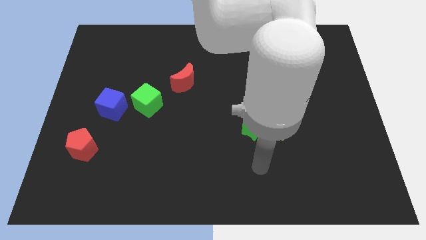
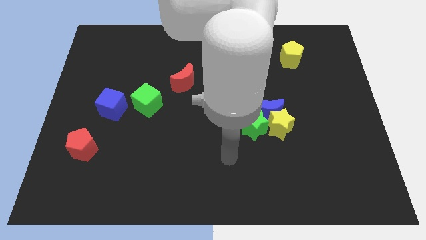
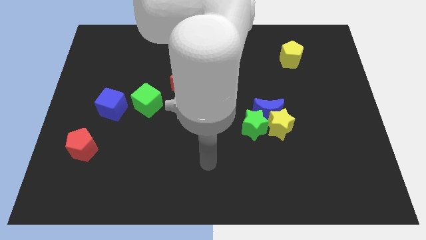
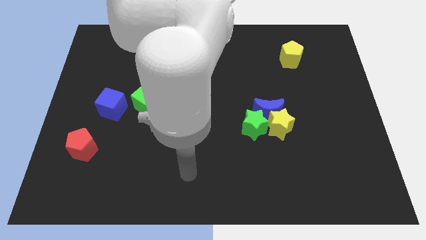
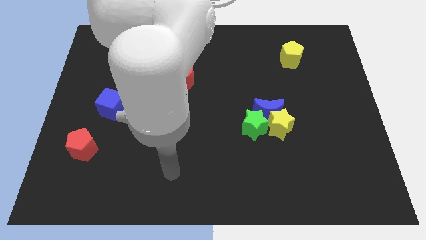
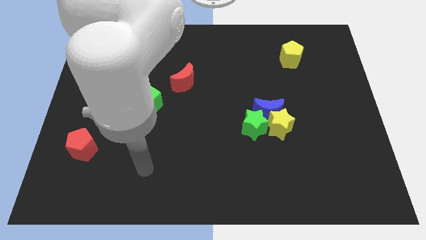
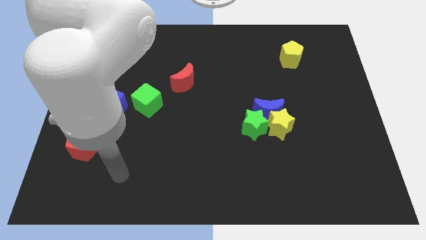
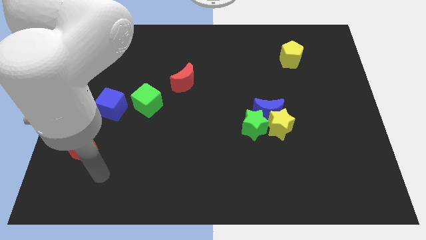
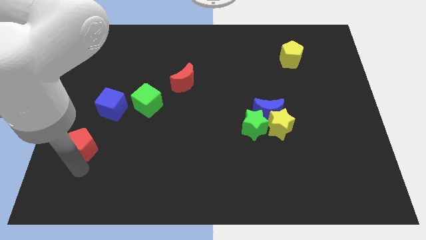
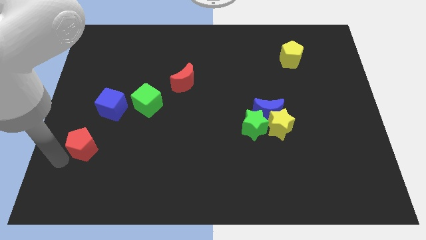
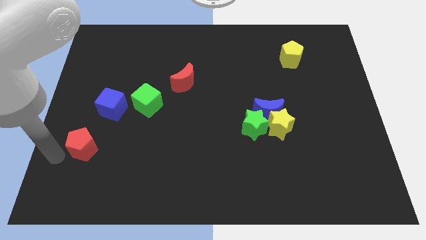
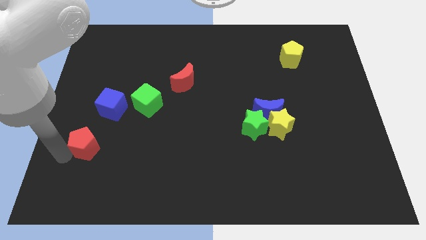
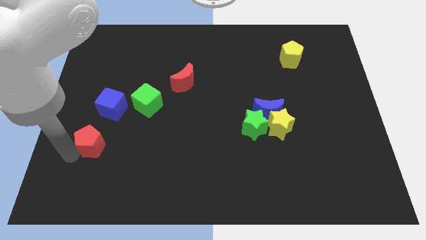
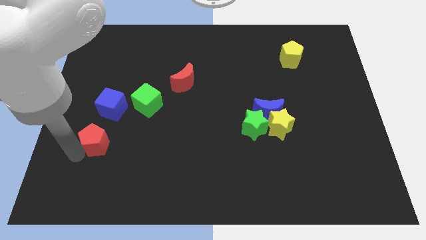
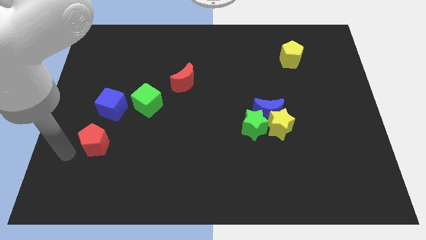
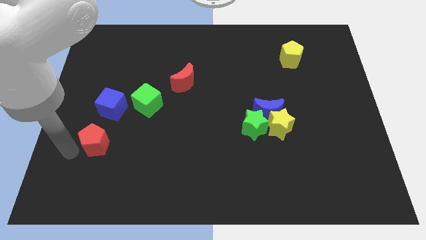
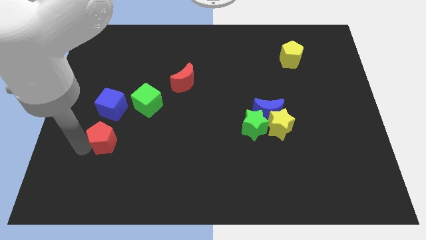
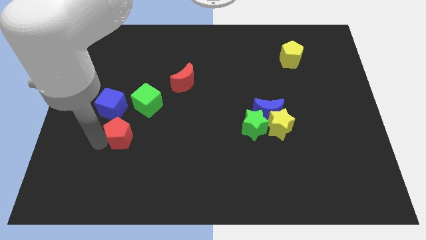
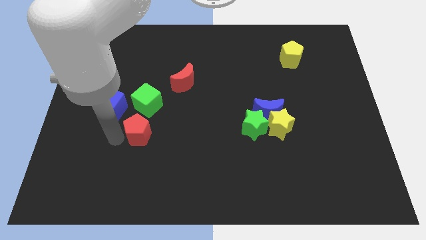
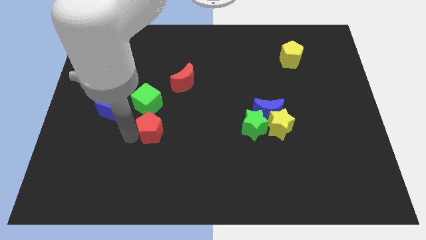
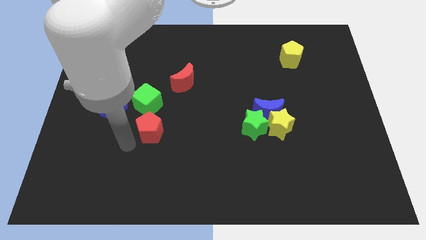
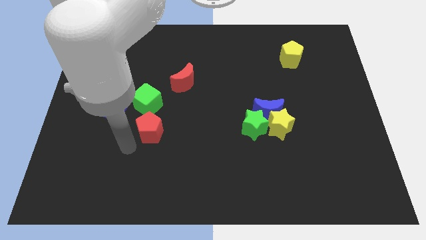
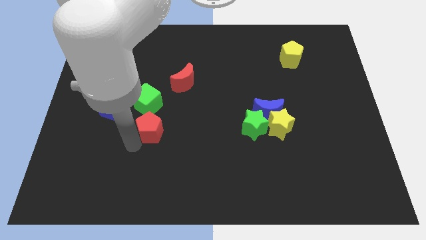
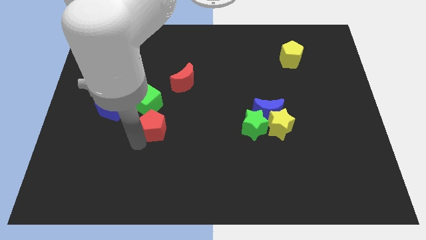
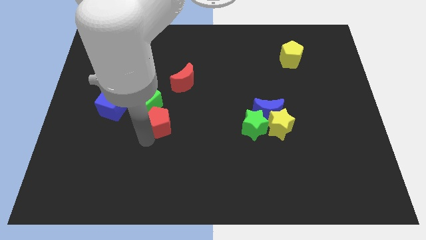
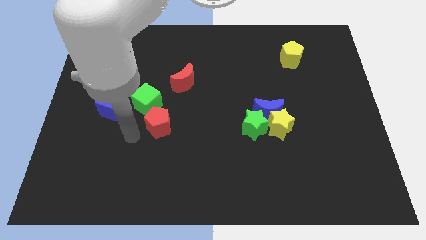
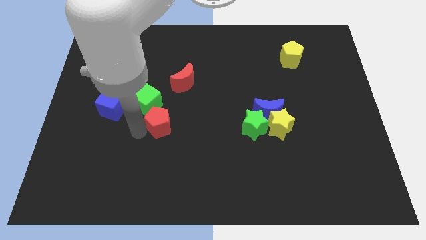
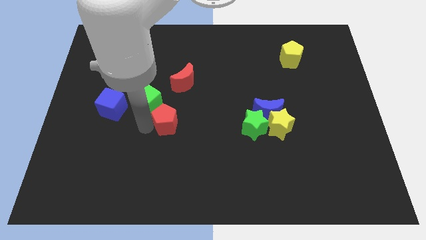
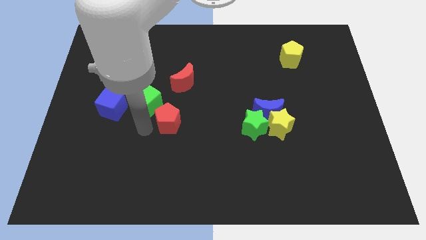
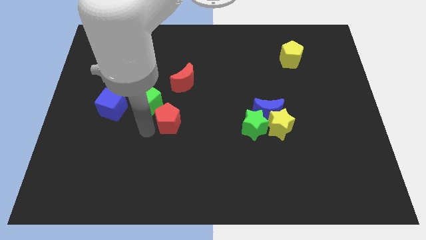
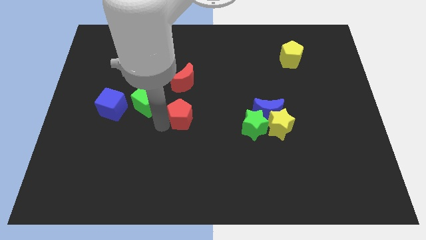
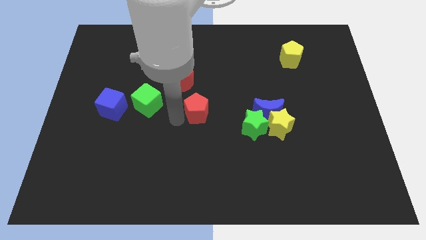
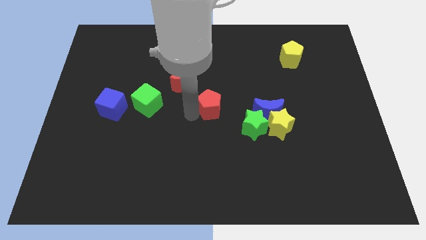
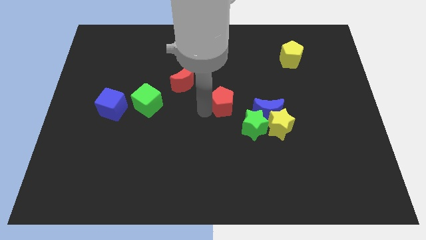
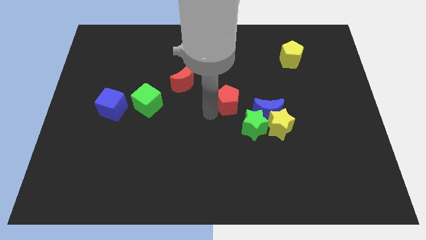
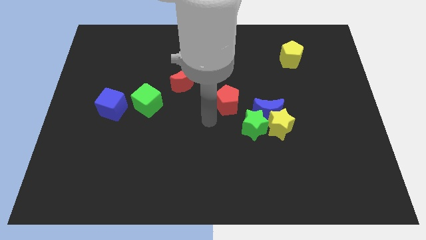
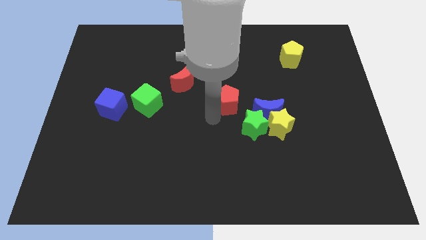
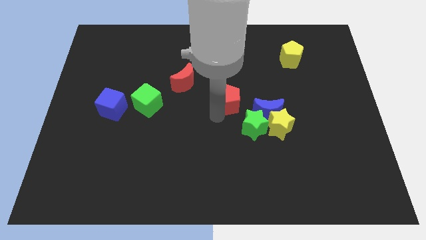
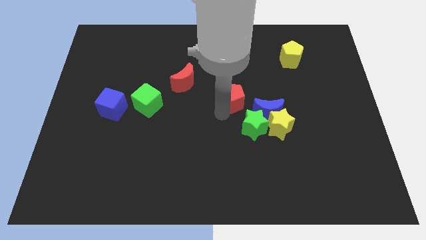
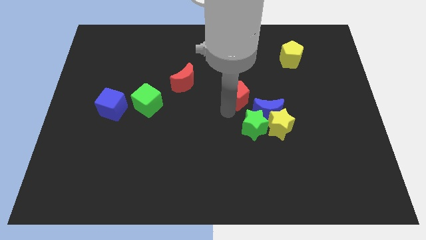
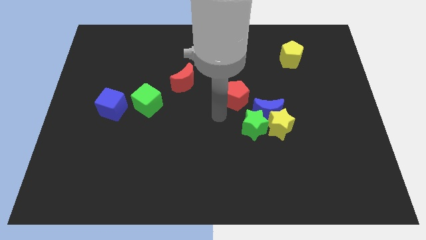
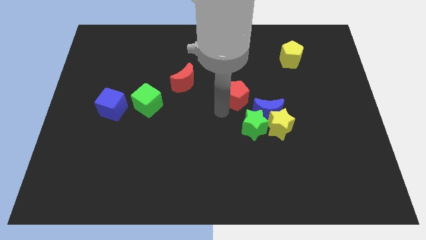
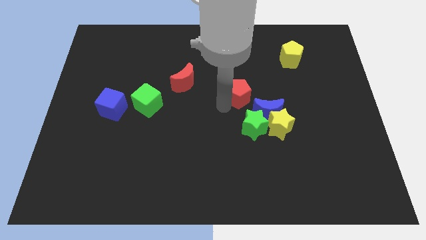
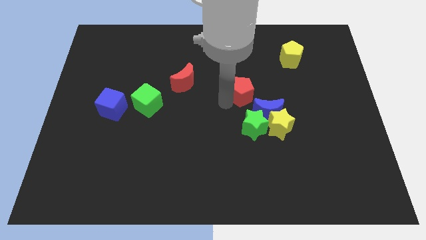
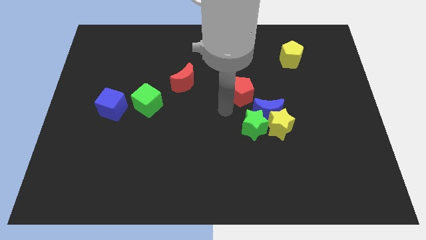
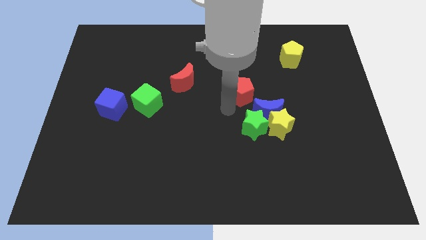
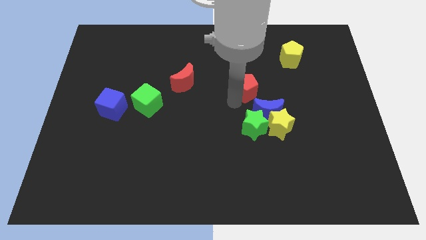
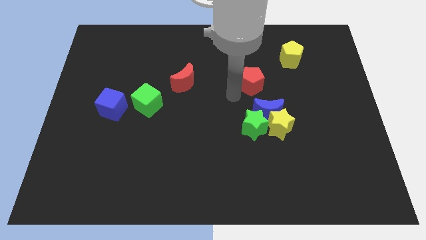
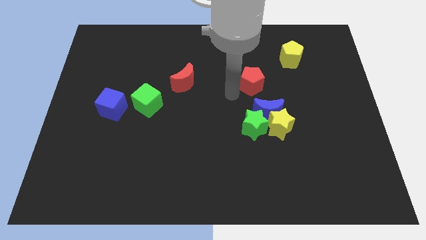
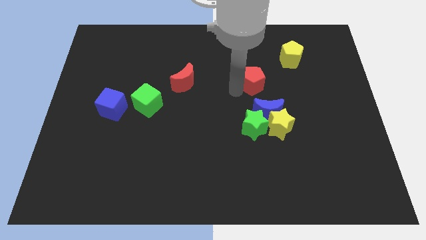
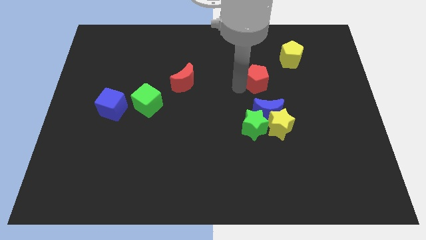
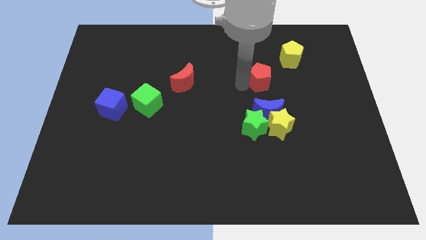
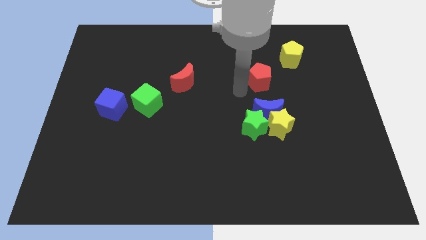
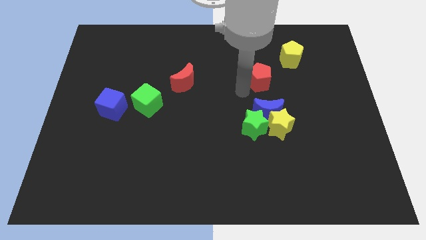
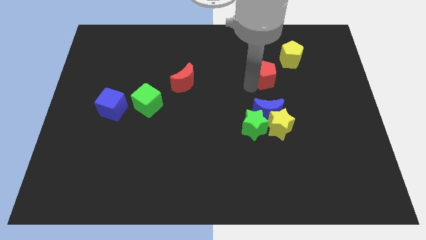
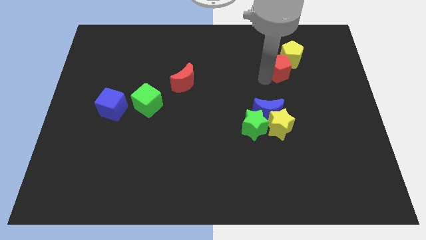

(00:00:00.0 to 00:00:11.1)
slide the red pentagon close to the yellow pentagon

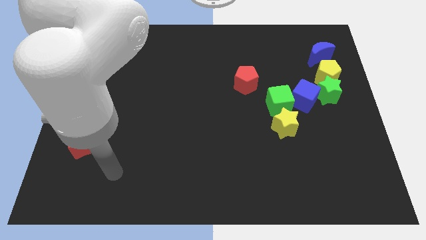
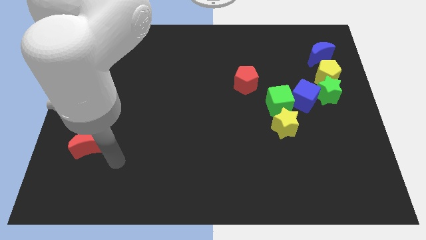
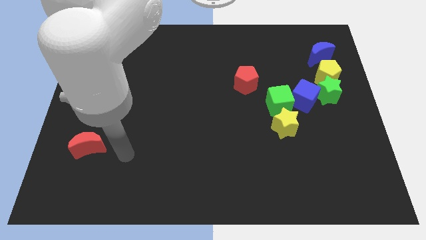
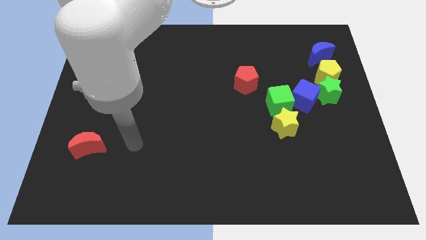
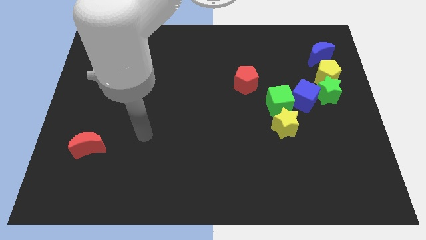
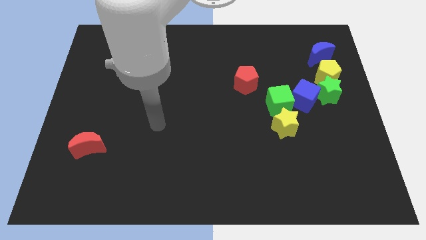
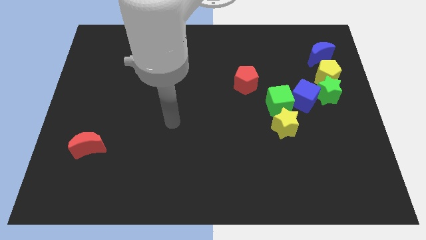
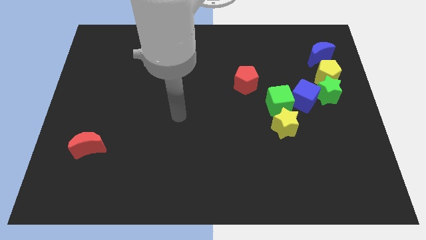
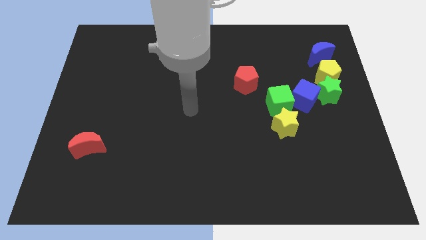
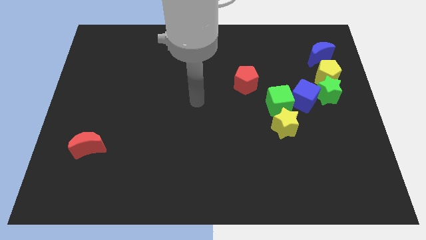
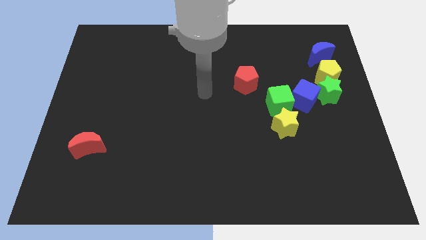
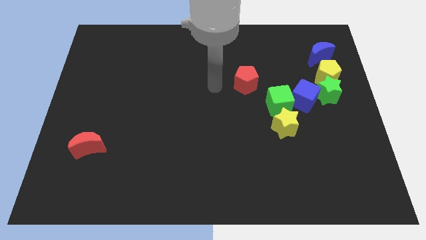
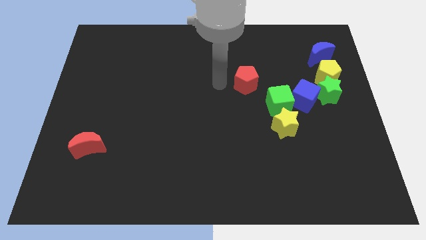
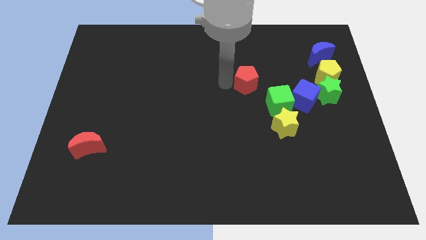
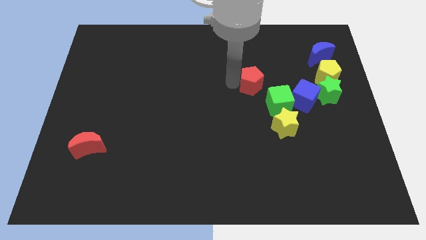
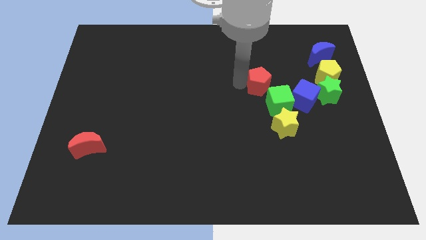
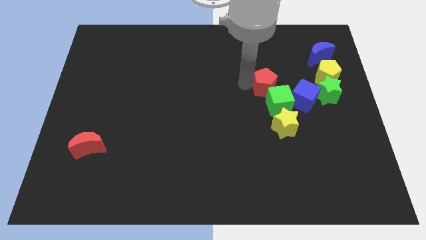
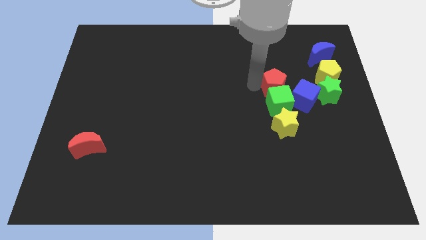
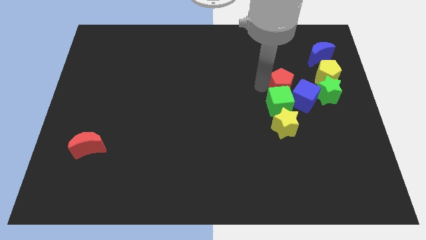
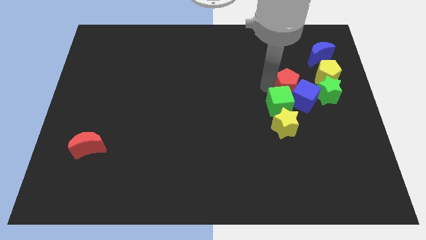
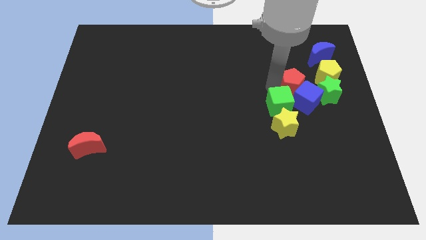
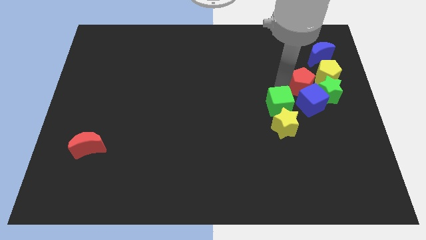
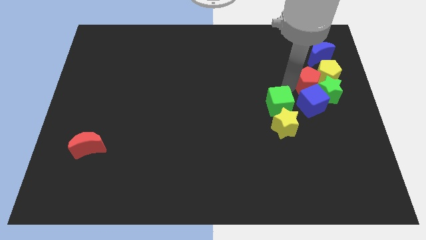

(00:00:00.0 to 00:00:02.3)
put the red pentagon to the yellow pentagon
